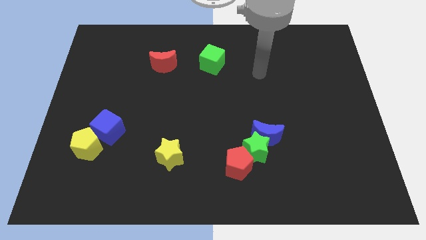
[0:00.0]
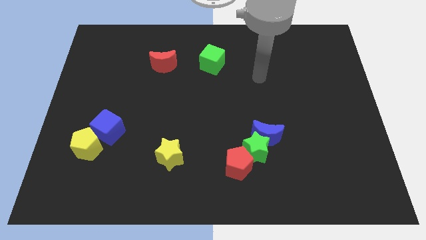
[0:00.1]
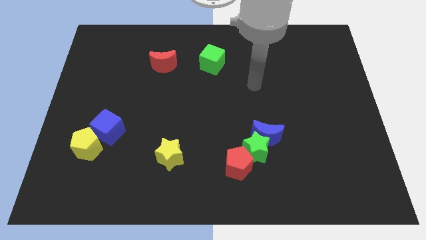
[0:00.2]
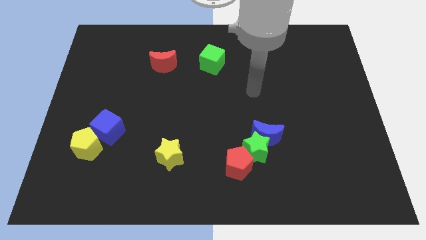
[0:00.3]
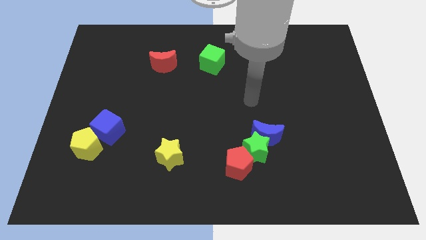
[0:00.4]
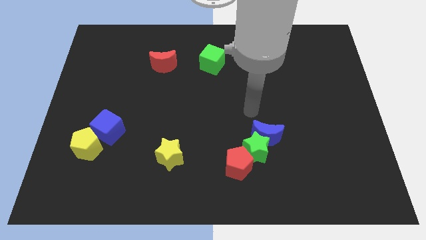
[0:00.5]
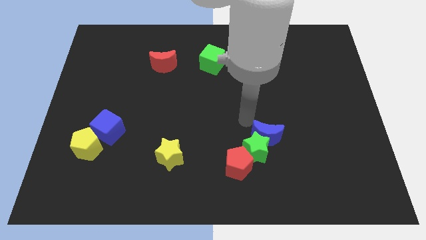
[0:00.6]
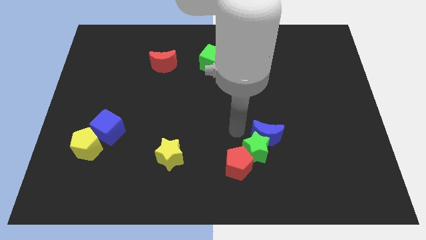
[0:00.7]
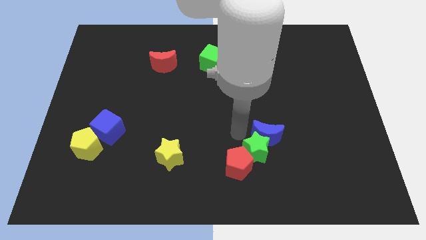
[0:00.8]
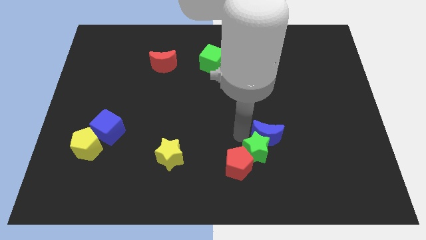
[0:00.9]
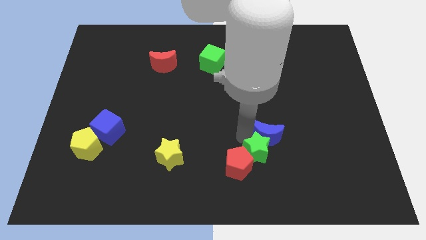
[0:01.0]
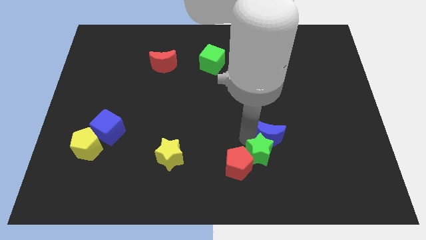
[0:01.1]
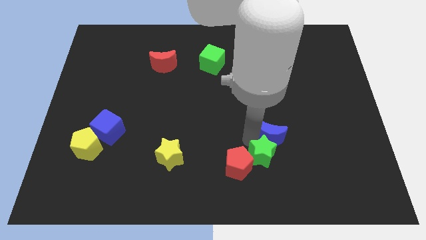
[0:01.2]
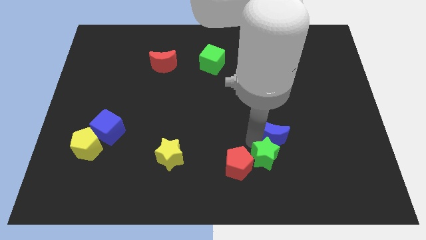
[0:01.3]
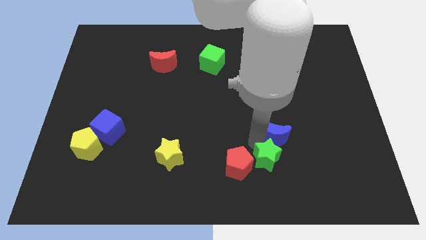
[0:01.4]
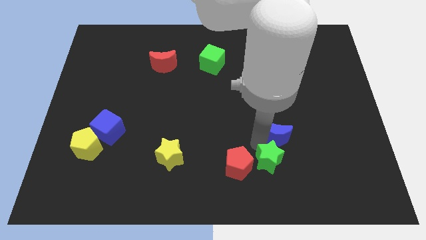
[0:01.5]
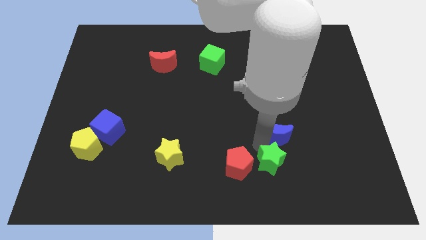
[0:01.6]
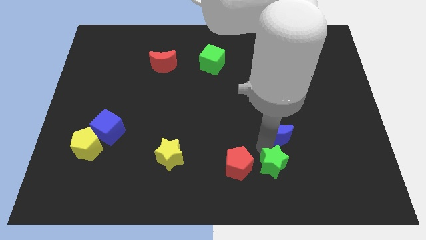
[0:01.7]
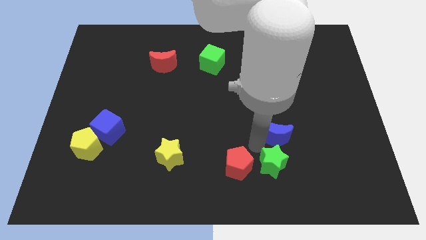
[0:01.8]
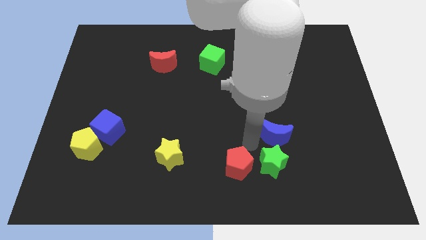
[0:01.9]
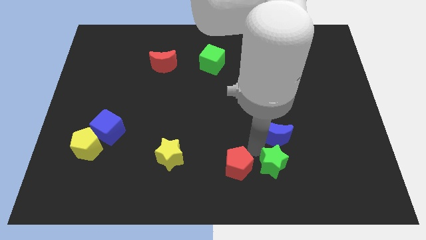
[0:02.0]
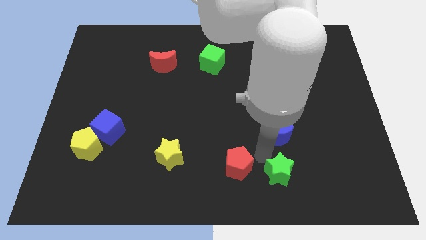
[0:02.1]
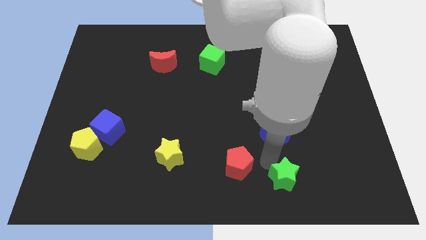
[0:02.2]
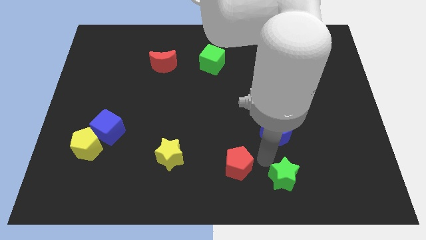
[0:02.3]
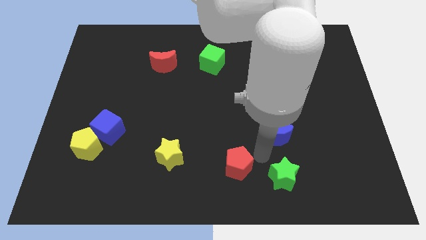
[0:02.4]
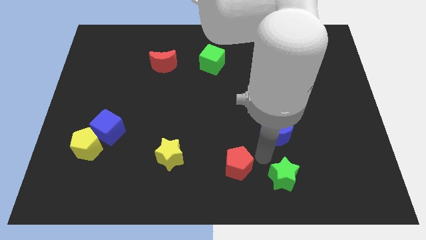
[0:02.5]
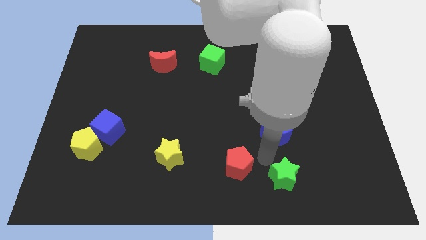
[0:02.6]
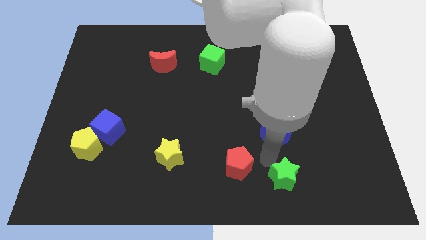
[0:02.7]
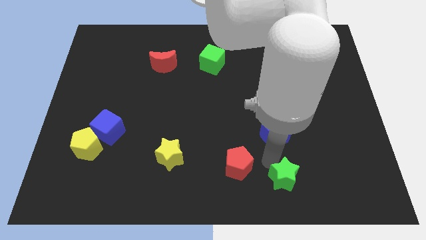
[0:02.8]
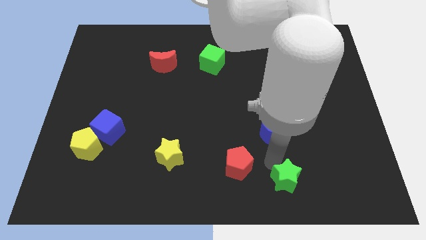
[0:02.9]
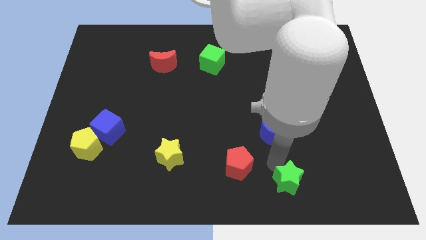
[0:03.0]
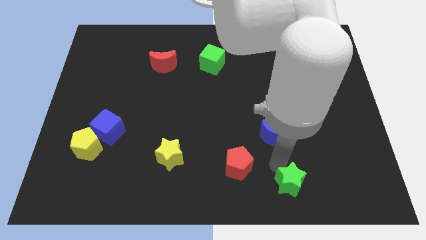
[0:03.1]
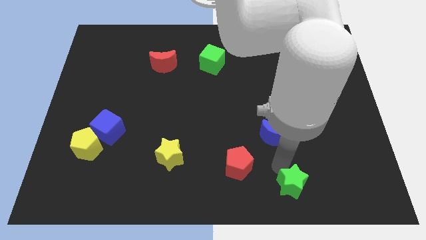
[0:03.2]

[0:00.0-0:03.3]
pull the green star apart from the blue moon and red pentagon

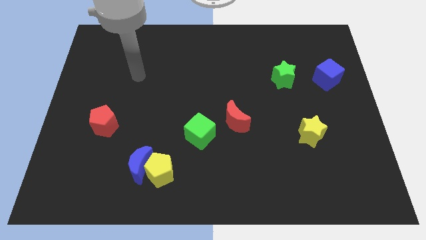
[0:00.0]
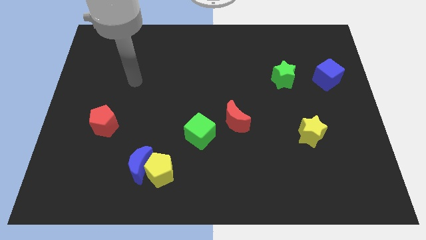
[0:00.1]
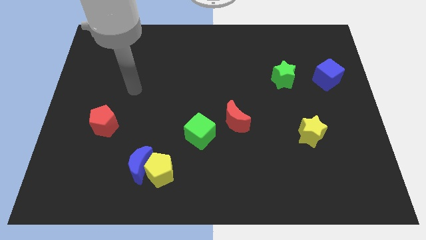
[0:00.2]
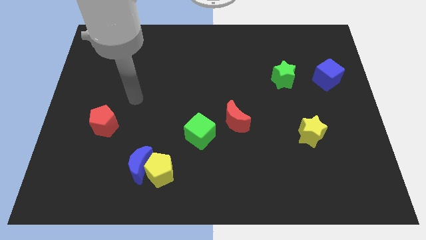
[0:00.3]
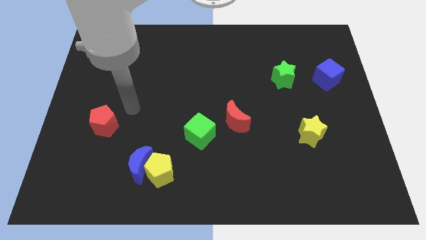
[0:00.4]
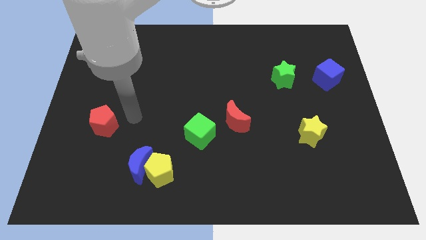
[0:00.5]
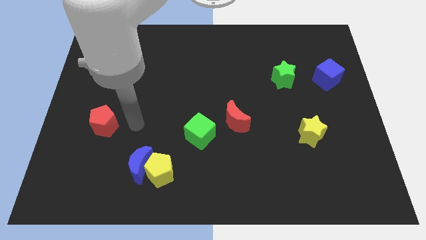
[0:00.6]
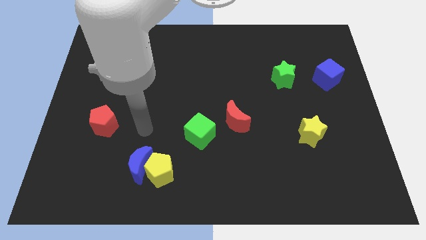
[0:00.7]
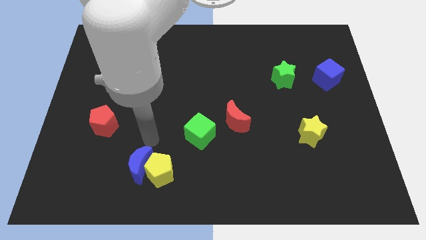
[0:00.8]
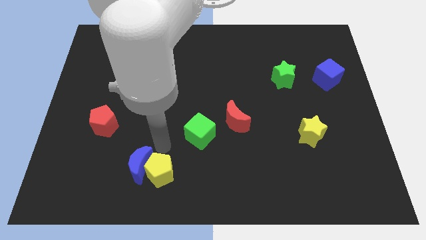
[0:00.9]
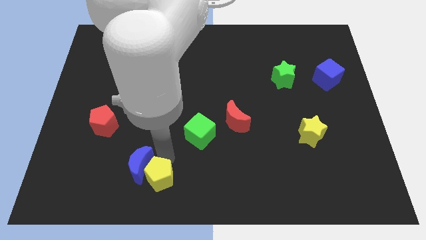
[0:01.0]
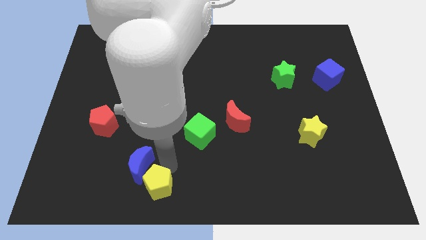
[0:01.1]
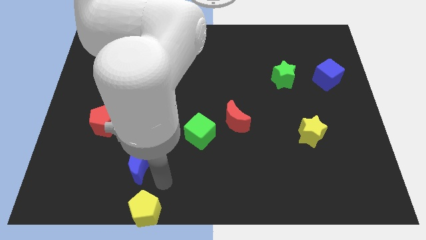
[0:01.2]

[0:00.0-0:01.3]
move the blue moon away from the yellow pentagon

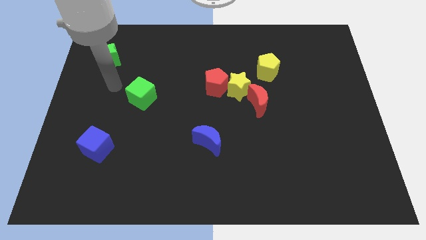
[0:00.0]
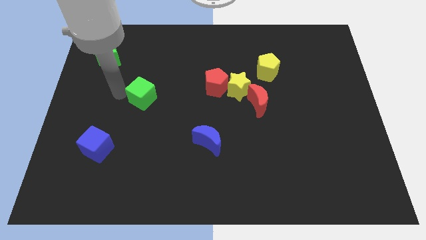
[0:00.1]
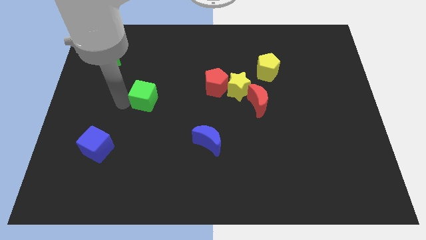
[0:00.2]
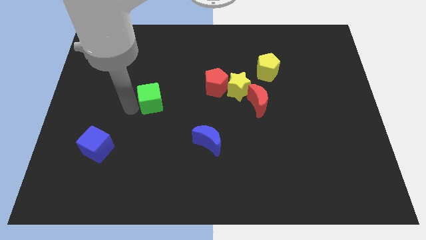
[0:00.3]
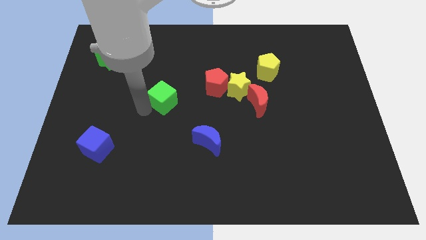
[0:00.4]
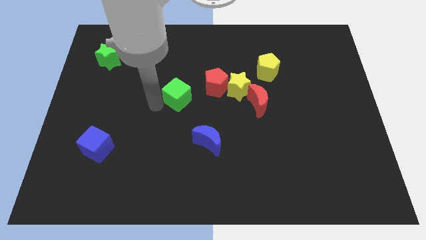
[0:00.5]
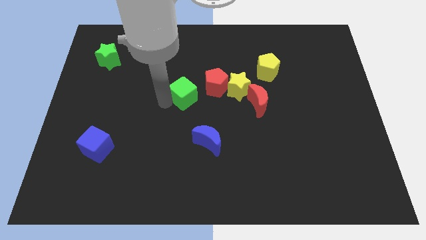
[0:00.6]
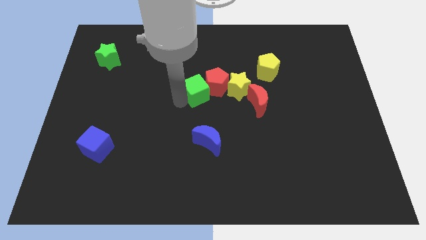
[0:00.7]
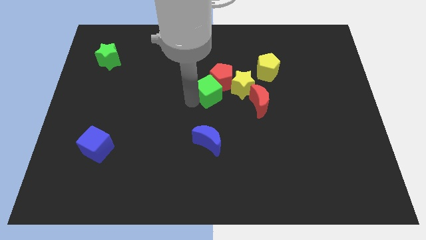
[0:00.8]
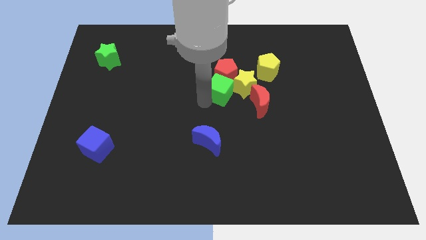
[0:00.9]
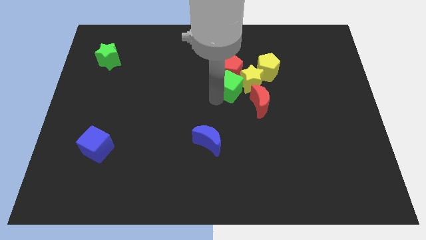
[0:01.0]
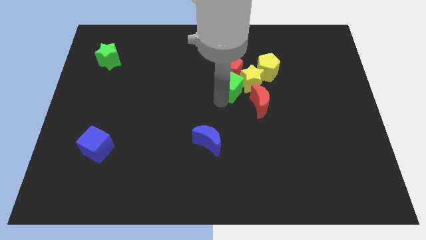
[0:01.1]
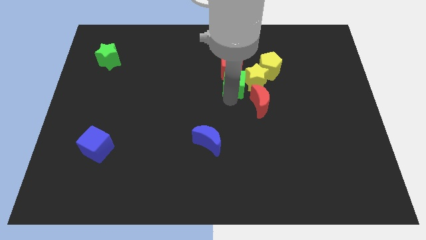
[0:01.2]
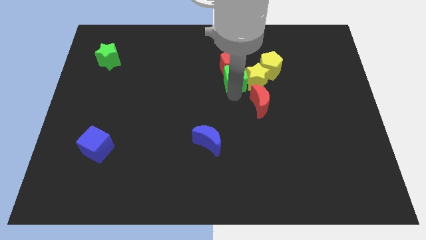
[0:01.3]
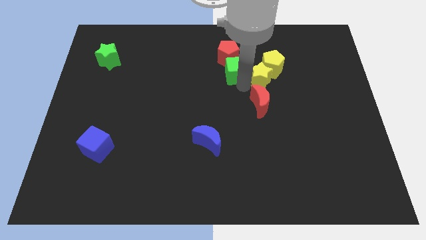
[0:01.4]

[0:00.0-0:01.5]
pull the red pentagon apart from the yellow star

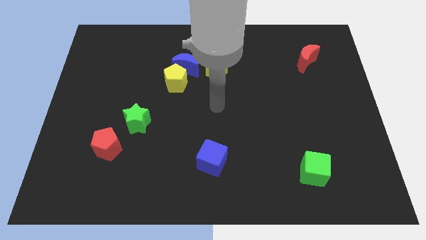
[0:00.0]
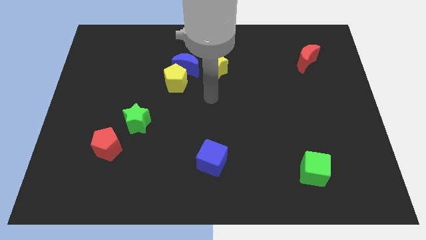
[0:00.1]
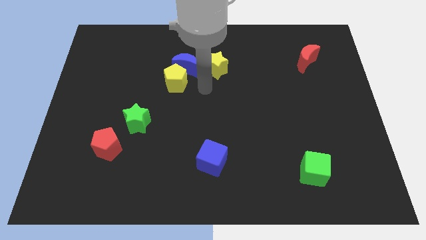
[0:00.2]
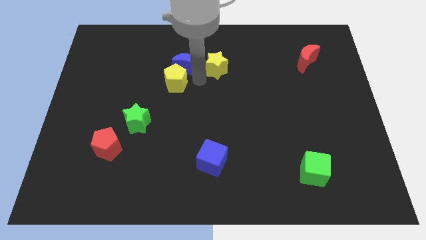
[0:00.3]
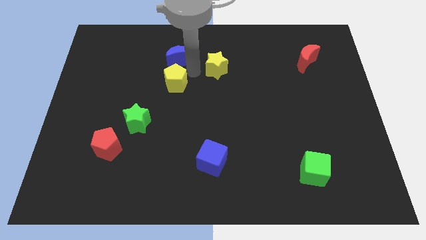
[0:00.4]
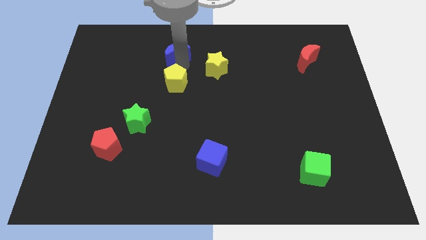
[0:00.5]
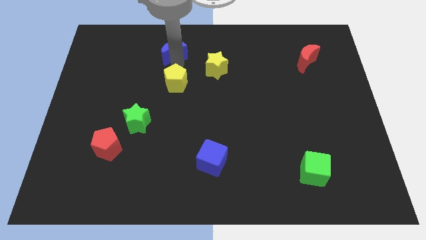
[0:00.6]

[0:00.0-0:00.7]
move the yellow pentagon away from the blue moon

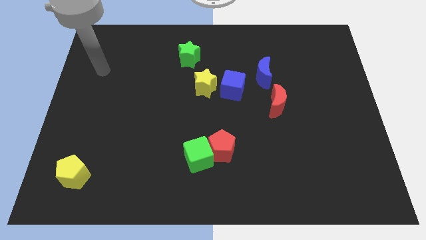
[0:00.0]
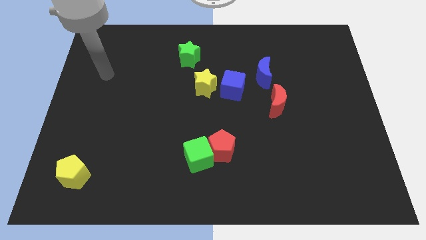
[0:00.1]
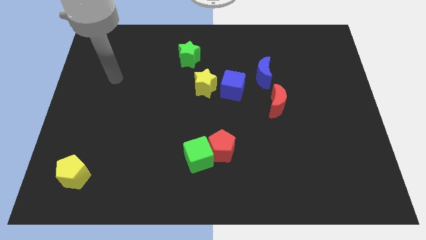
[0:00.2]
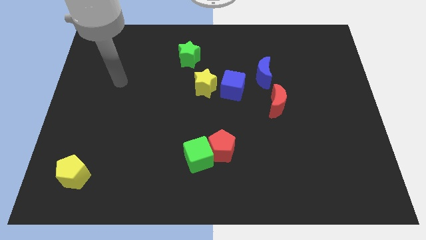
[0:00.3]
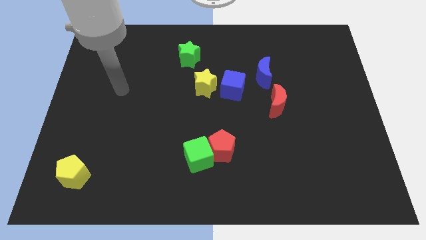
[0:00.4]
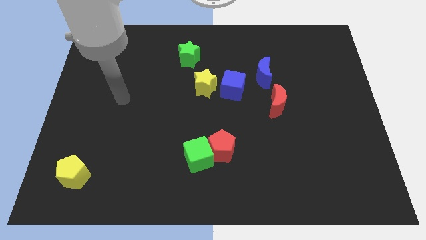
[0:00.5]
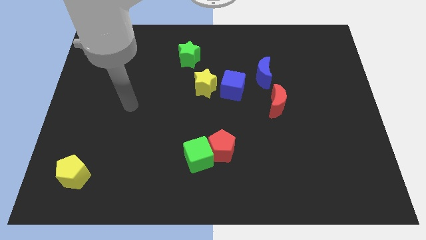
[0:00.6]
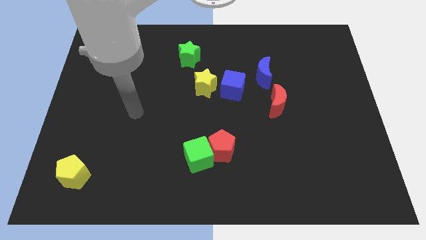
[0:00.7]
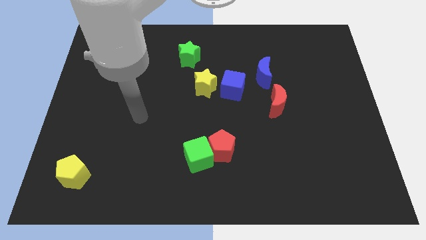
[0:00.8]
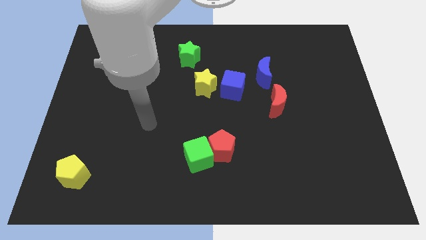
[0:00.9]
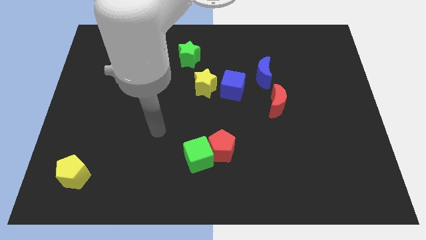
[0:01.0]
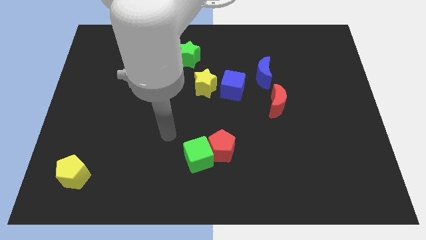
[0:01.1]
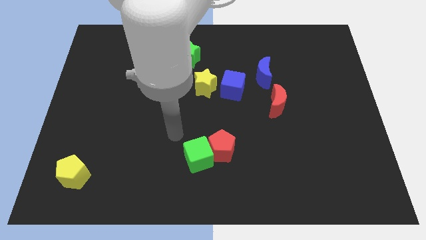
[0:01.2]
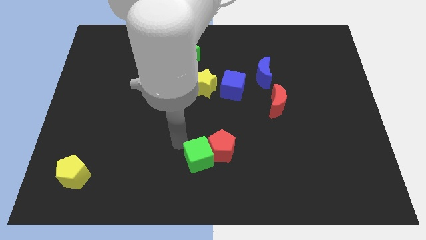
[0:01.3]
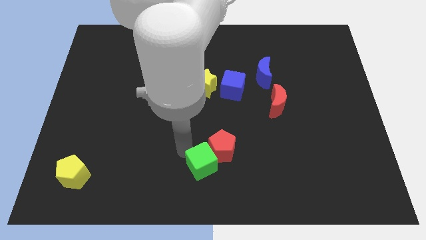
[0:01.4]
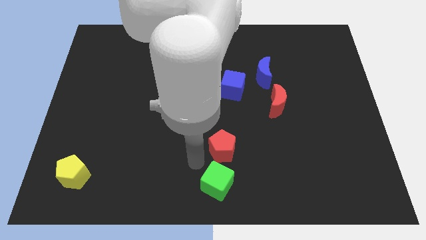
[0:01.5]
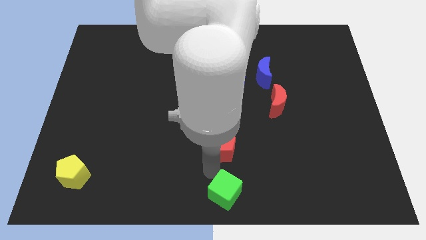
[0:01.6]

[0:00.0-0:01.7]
move the red pentagon away from the green cube

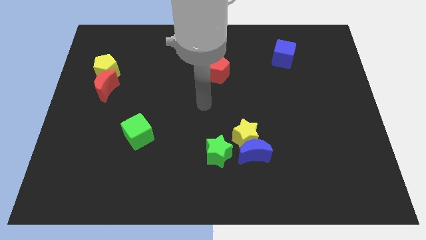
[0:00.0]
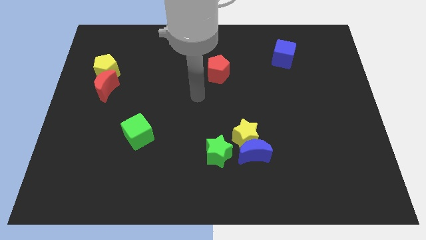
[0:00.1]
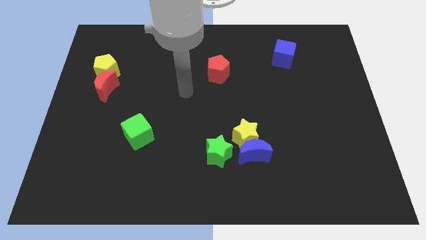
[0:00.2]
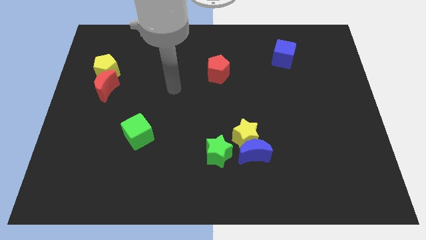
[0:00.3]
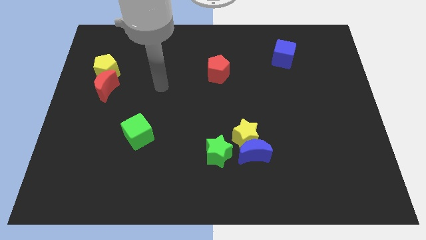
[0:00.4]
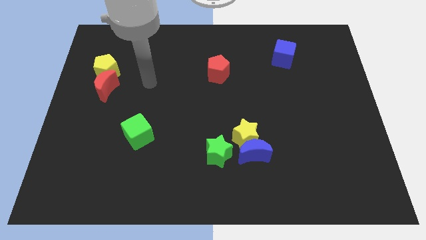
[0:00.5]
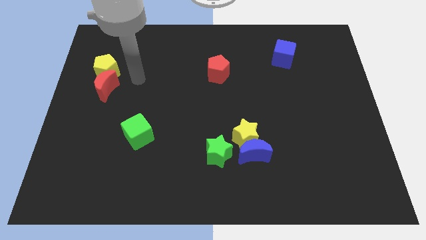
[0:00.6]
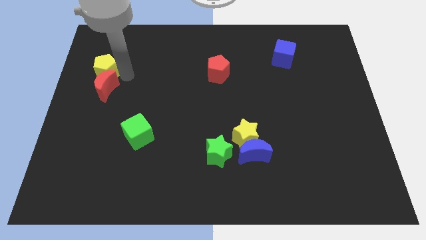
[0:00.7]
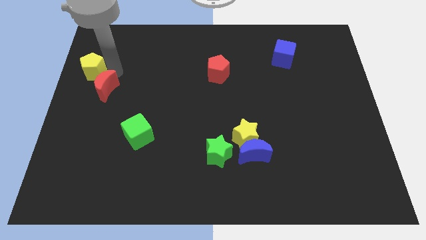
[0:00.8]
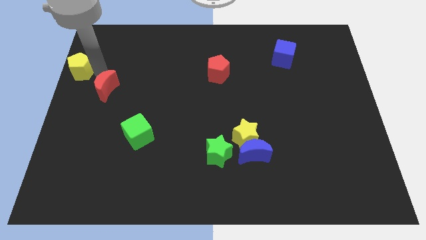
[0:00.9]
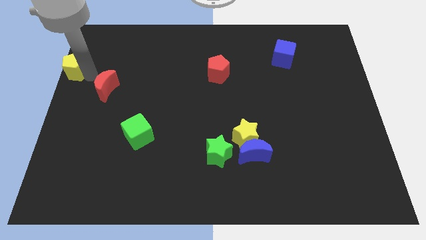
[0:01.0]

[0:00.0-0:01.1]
pull the red moon apart from the yellow pentagon
